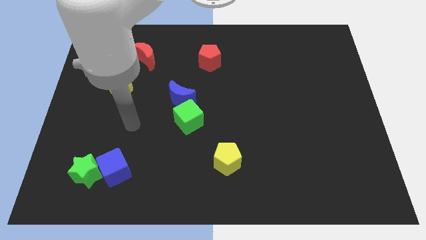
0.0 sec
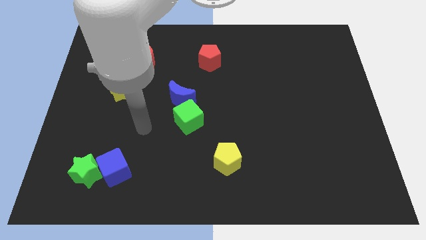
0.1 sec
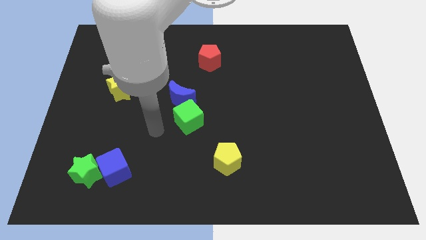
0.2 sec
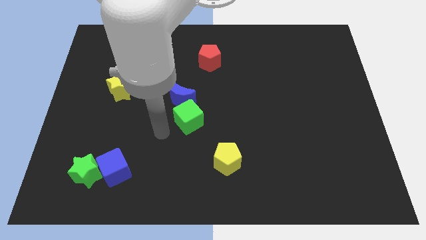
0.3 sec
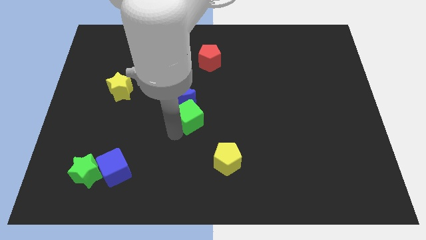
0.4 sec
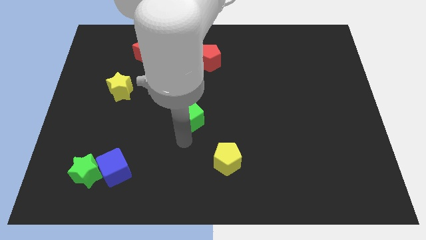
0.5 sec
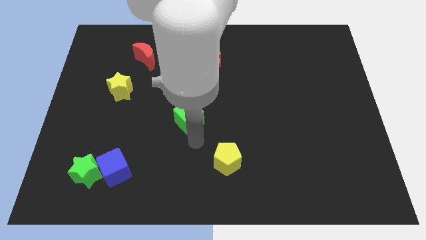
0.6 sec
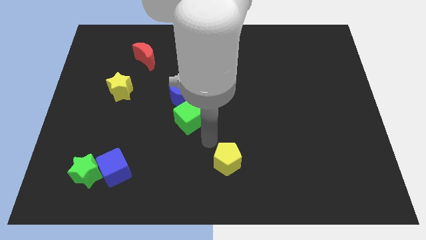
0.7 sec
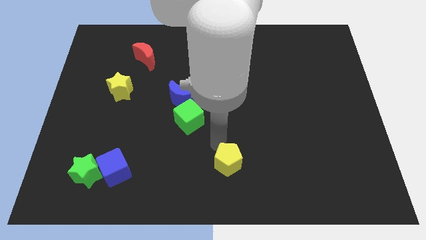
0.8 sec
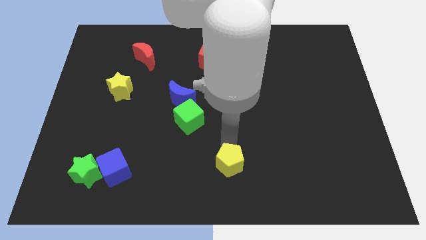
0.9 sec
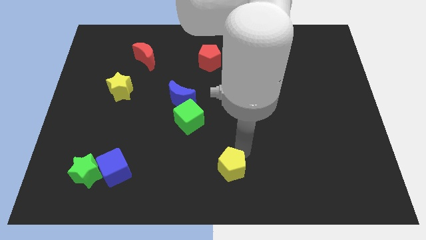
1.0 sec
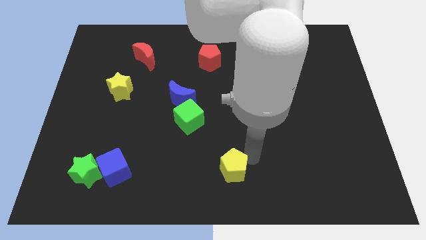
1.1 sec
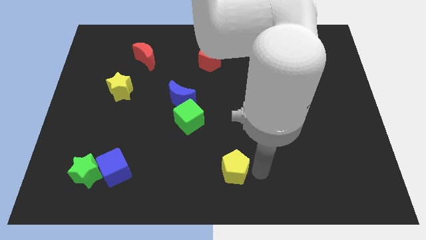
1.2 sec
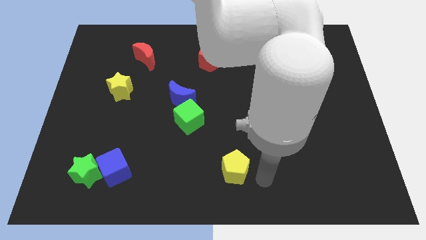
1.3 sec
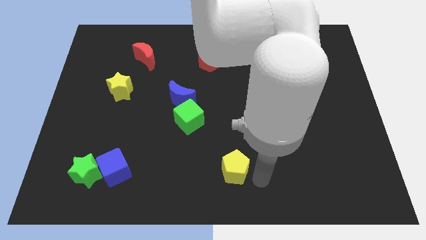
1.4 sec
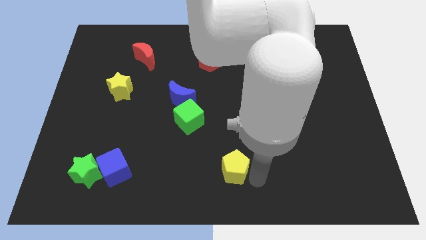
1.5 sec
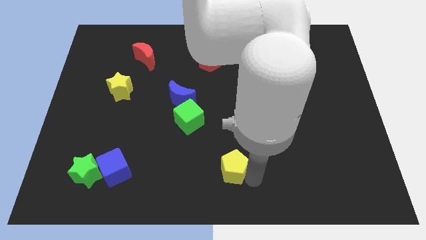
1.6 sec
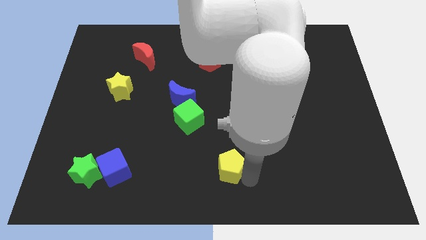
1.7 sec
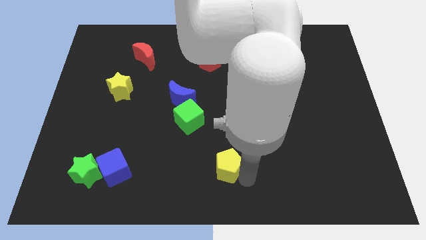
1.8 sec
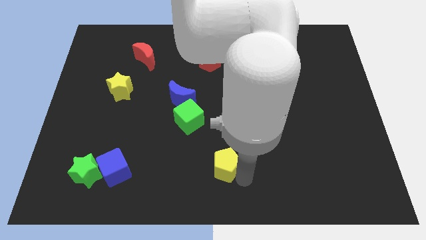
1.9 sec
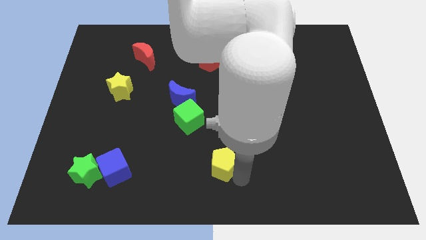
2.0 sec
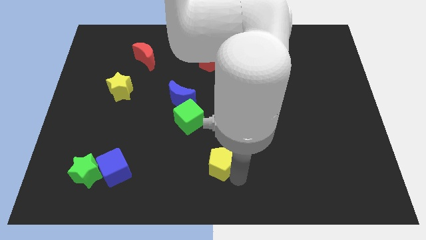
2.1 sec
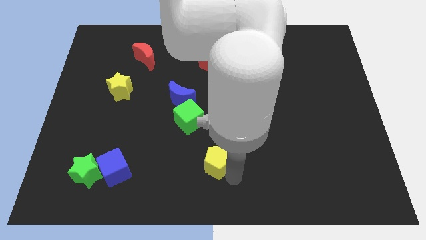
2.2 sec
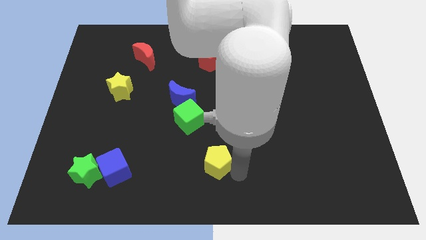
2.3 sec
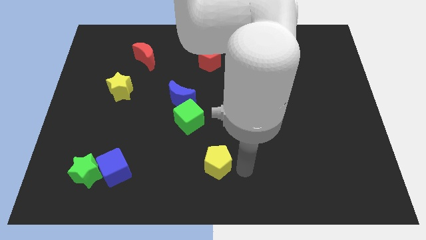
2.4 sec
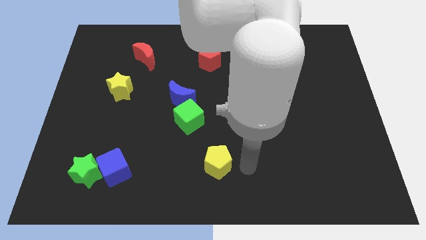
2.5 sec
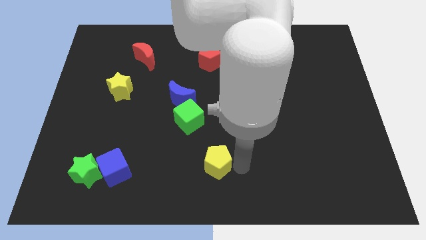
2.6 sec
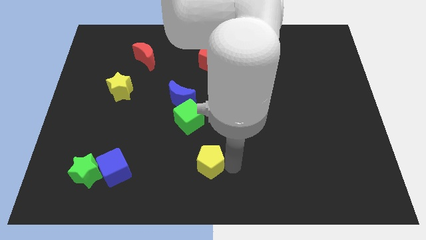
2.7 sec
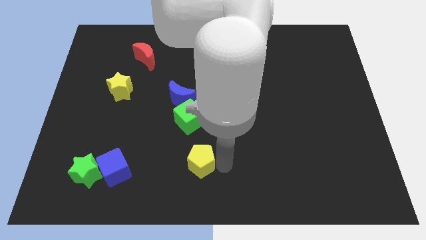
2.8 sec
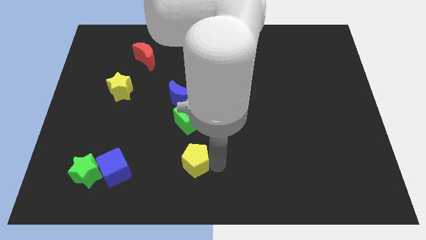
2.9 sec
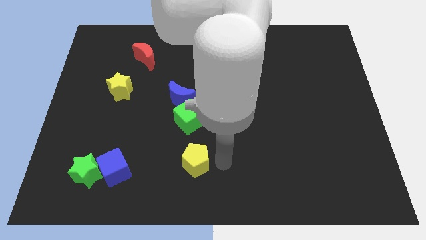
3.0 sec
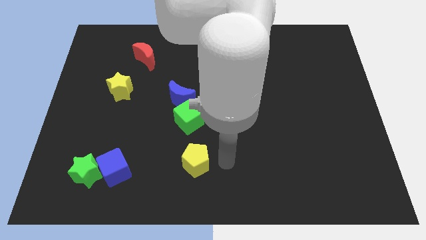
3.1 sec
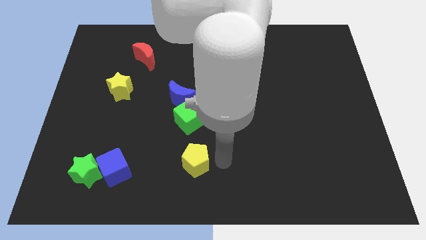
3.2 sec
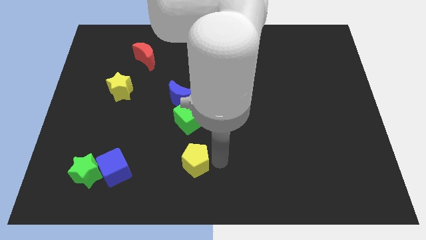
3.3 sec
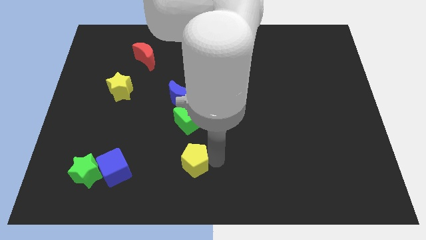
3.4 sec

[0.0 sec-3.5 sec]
push the yellow pentagon a bit to the left

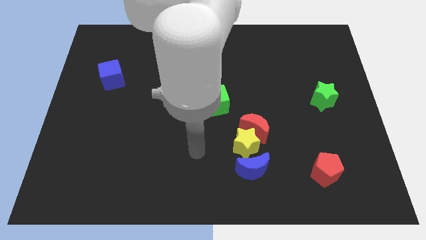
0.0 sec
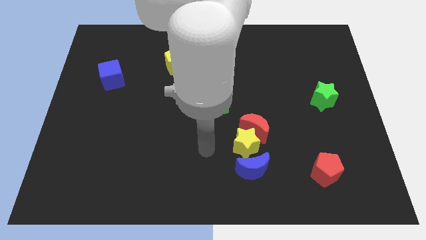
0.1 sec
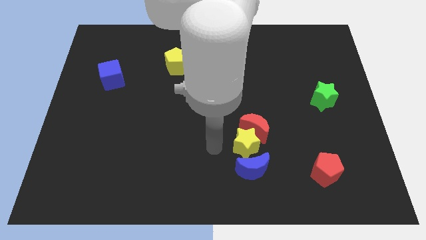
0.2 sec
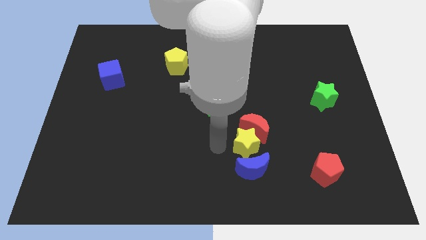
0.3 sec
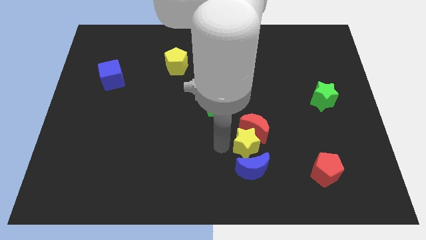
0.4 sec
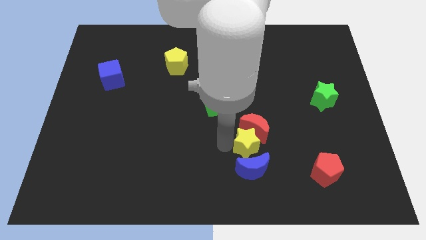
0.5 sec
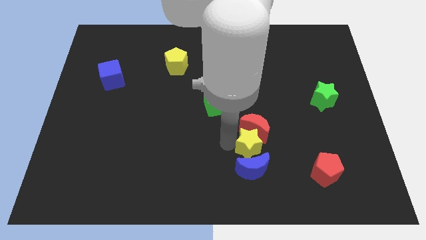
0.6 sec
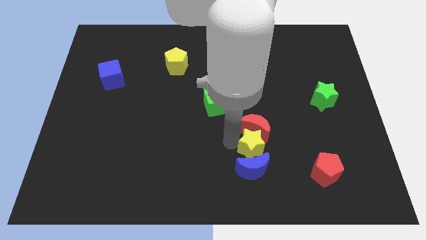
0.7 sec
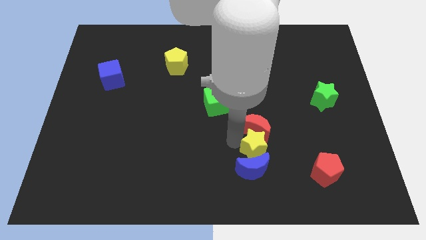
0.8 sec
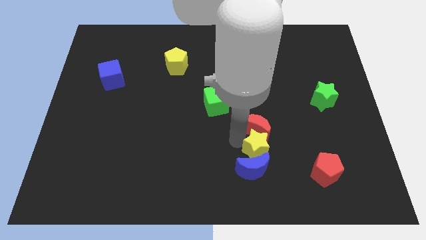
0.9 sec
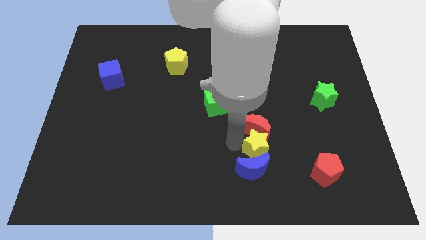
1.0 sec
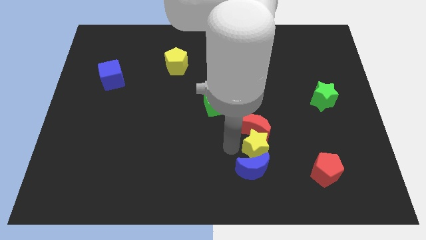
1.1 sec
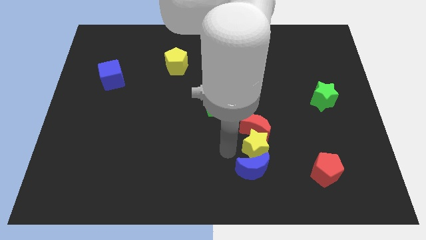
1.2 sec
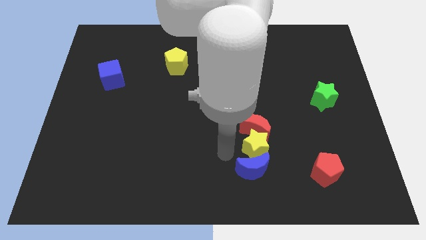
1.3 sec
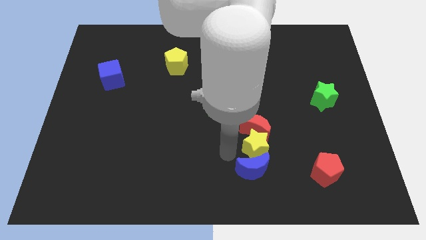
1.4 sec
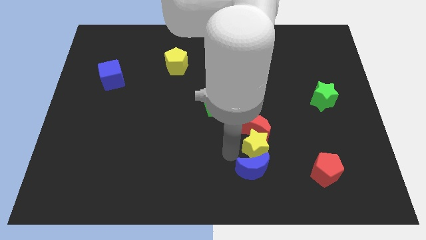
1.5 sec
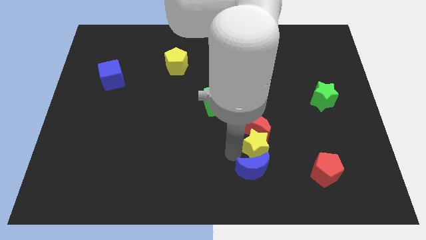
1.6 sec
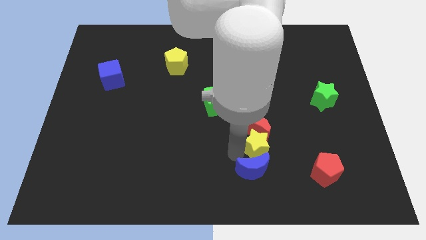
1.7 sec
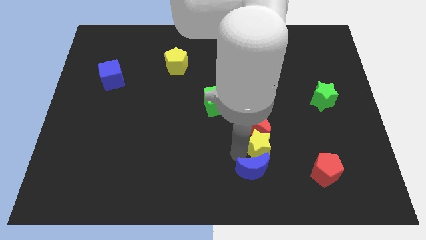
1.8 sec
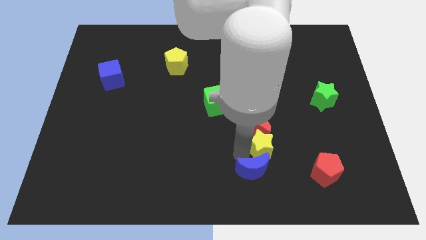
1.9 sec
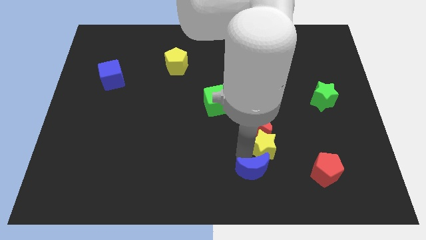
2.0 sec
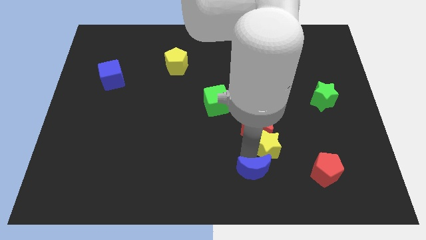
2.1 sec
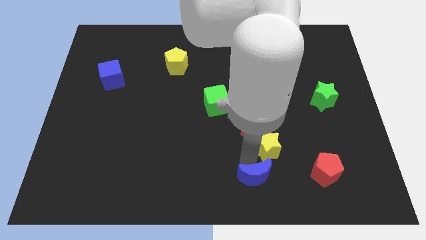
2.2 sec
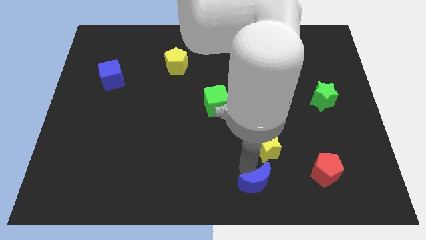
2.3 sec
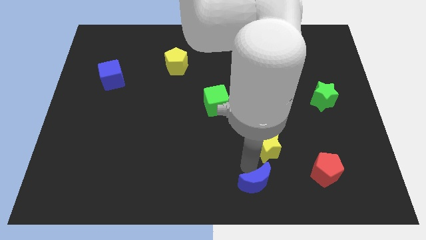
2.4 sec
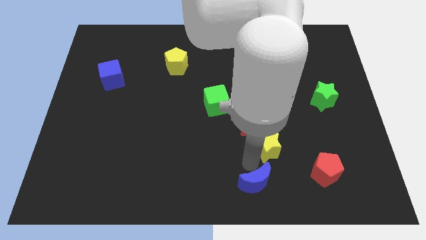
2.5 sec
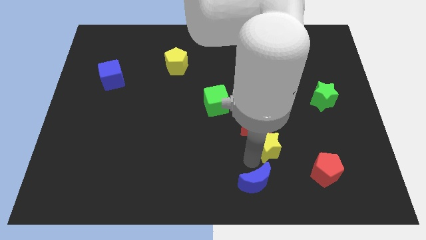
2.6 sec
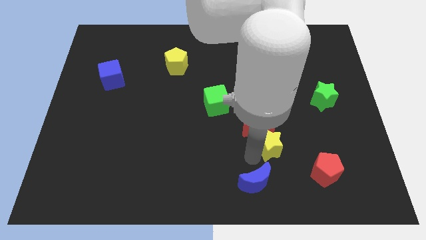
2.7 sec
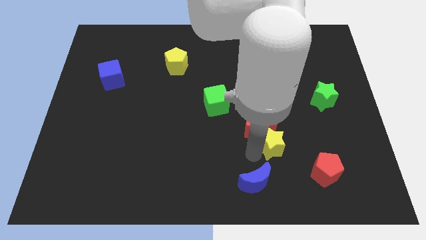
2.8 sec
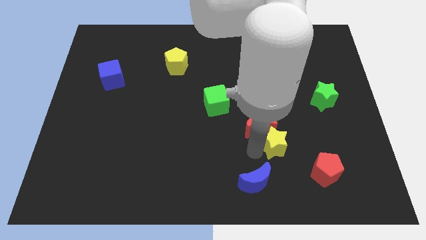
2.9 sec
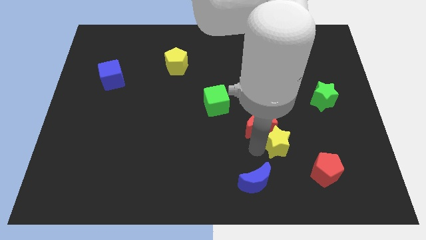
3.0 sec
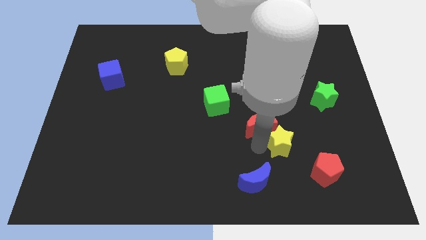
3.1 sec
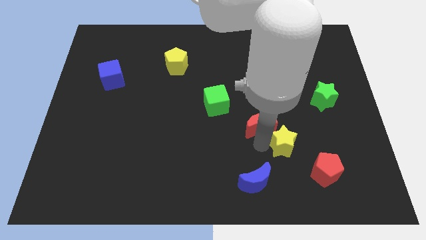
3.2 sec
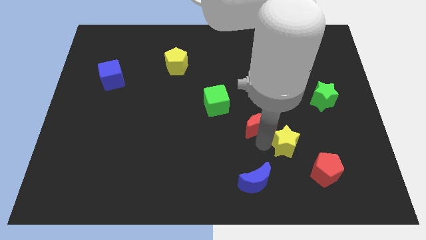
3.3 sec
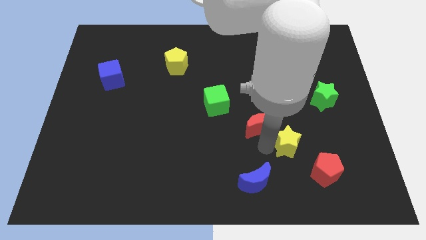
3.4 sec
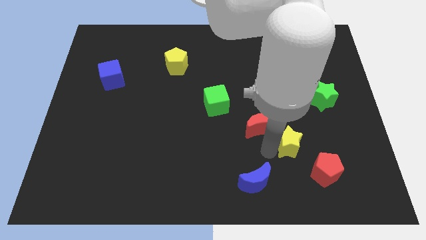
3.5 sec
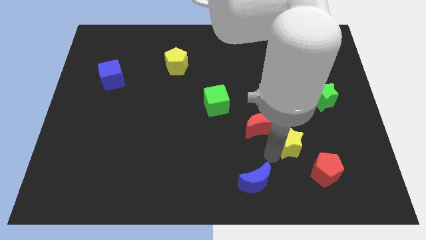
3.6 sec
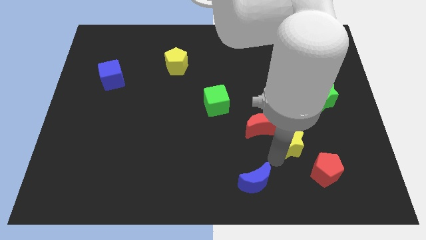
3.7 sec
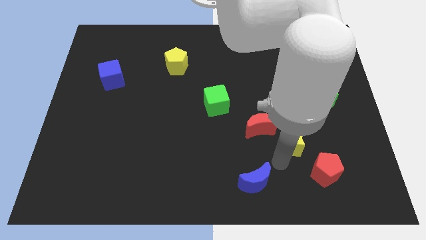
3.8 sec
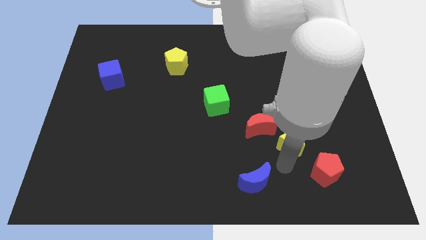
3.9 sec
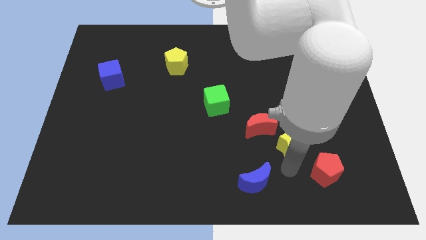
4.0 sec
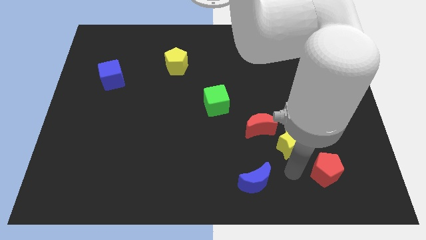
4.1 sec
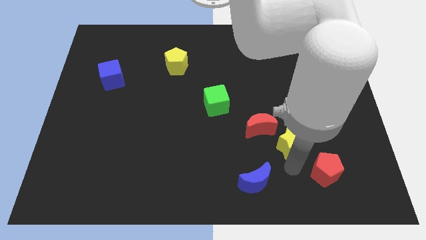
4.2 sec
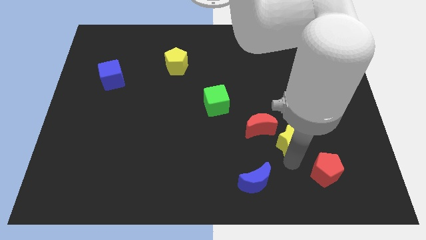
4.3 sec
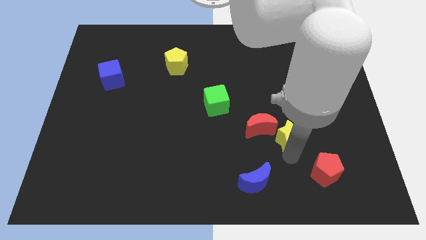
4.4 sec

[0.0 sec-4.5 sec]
push the yellow star slightly upwards and then right
